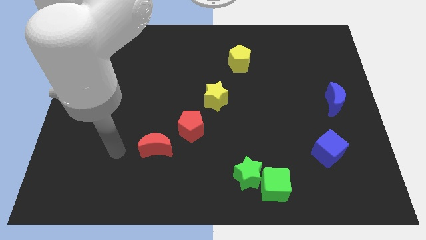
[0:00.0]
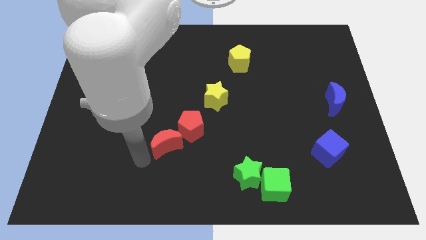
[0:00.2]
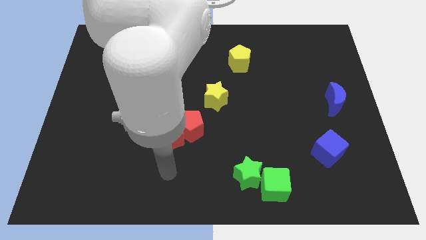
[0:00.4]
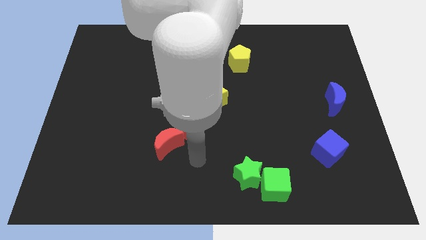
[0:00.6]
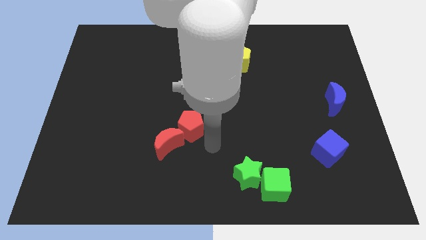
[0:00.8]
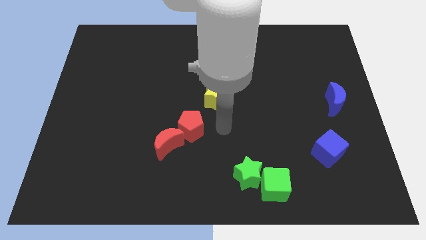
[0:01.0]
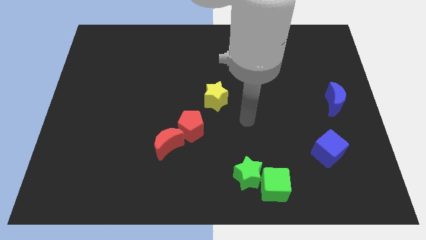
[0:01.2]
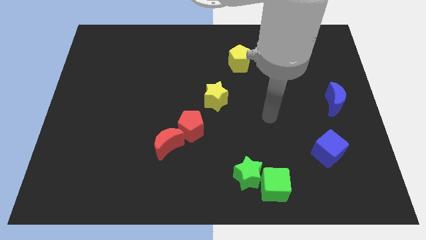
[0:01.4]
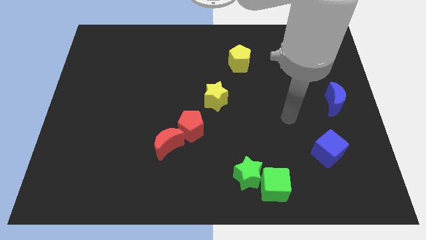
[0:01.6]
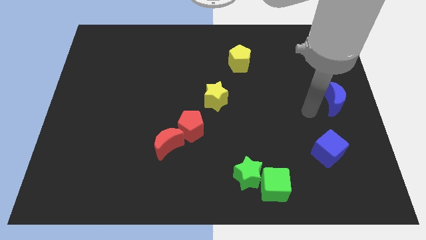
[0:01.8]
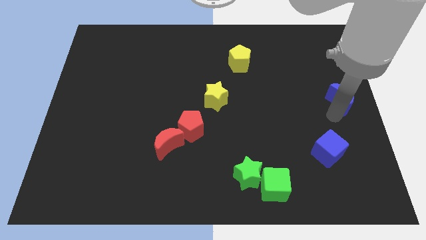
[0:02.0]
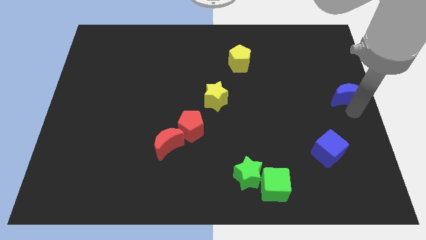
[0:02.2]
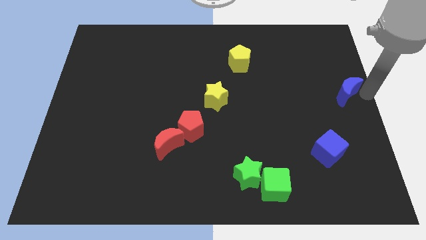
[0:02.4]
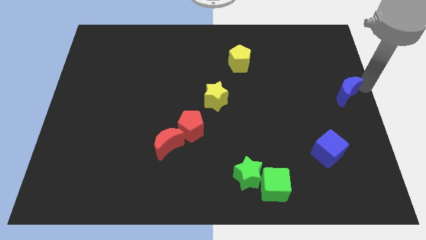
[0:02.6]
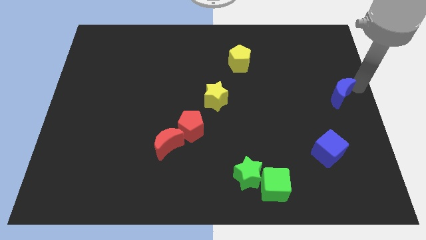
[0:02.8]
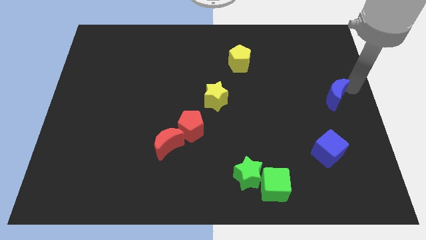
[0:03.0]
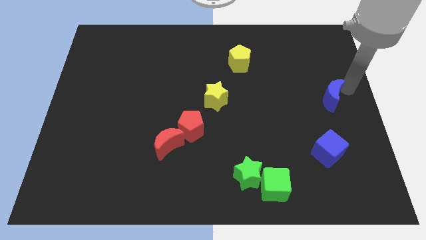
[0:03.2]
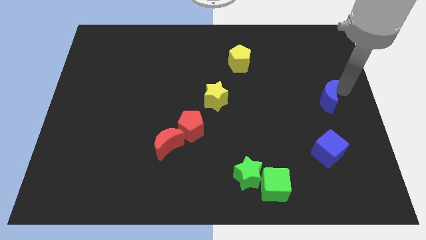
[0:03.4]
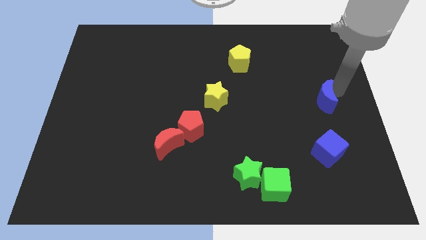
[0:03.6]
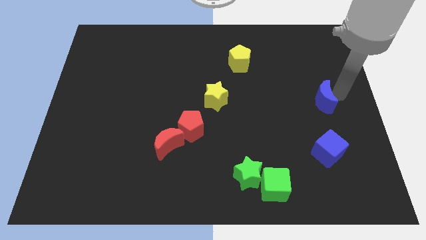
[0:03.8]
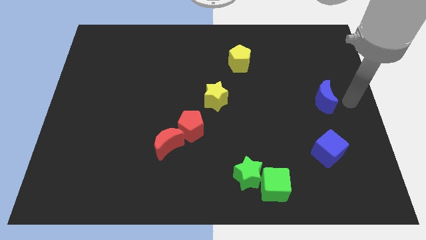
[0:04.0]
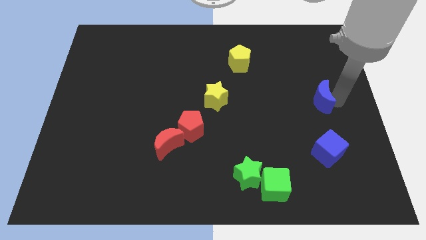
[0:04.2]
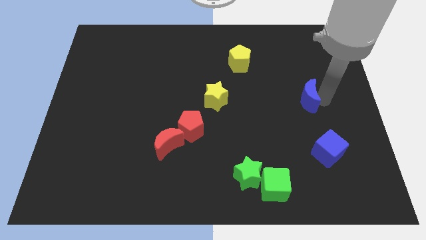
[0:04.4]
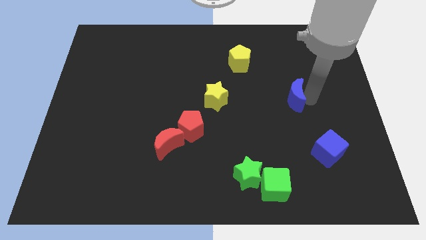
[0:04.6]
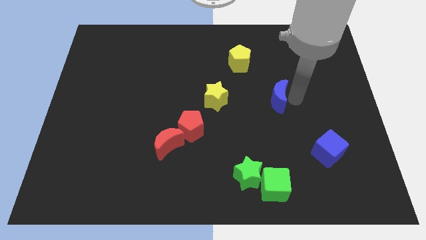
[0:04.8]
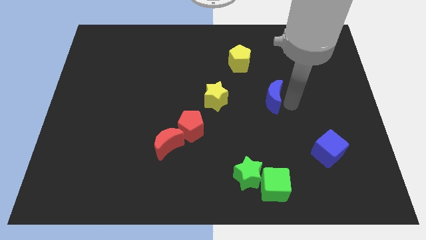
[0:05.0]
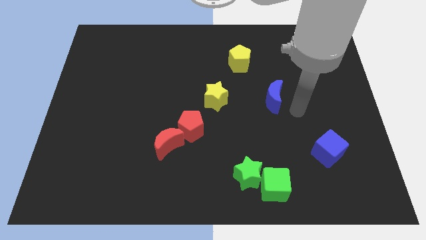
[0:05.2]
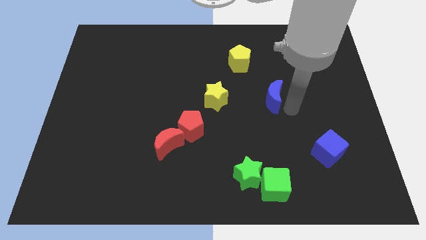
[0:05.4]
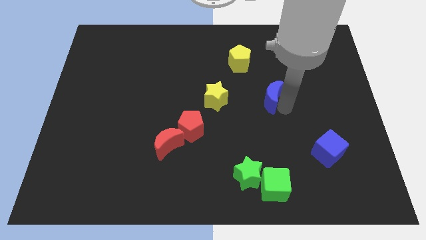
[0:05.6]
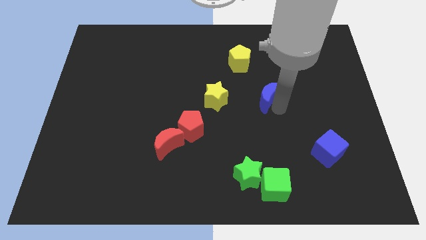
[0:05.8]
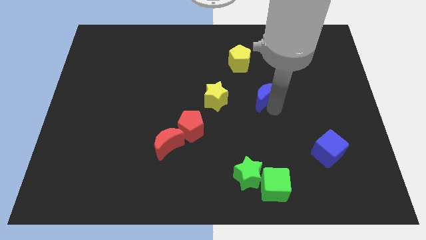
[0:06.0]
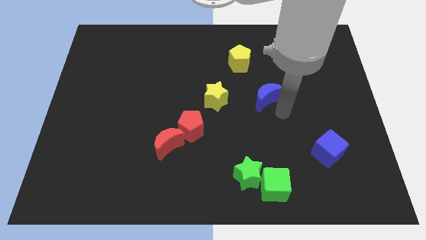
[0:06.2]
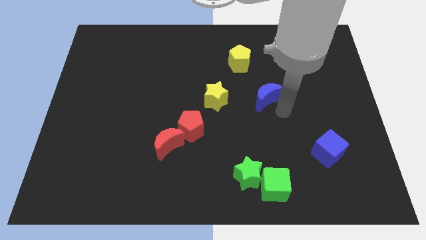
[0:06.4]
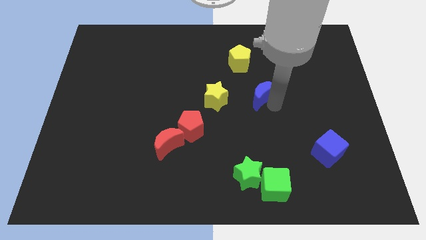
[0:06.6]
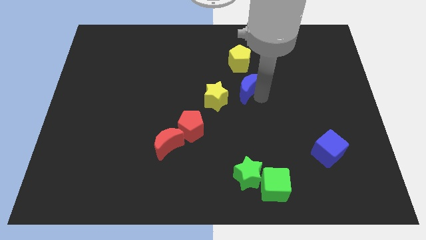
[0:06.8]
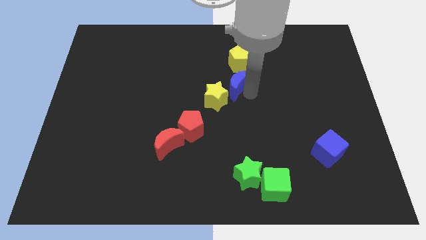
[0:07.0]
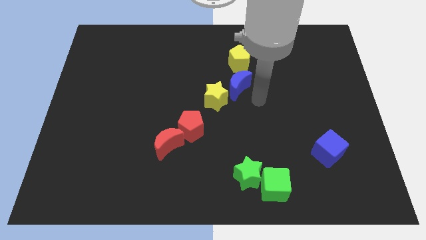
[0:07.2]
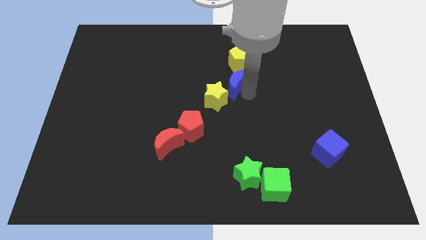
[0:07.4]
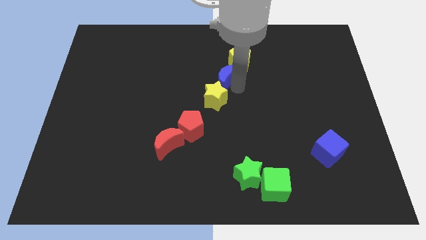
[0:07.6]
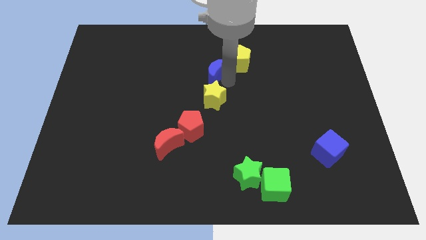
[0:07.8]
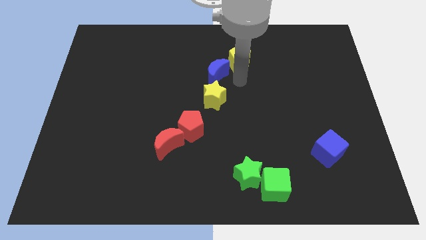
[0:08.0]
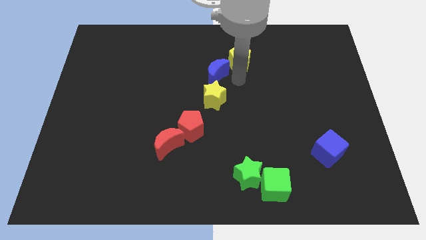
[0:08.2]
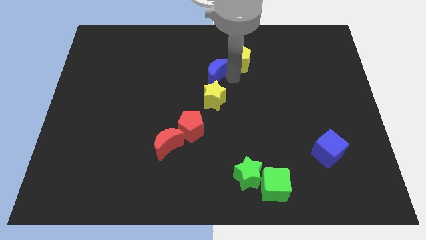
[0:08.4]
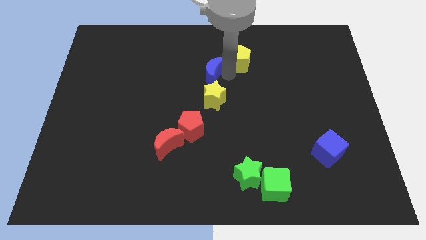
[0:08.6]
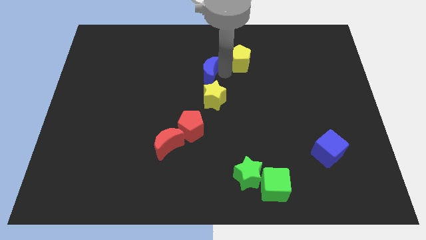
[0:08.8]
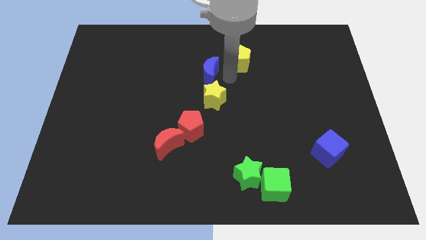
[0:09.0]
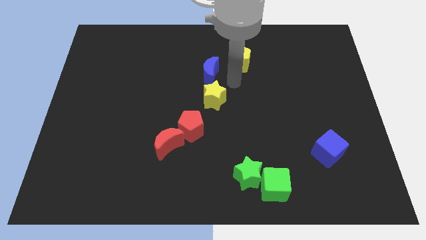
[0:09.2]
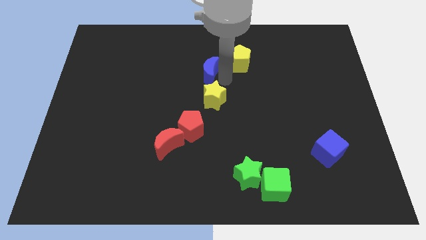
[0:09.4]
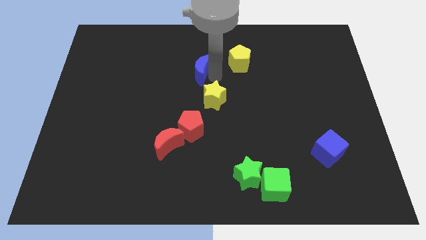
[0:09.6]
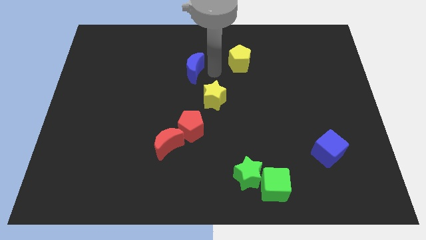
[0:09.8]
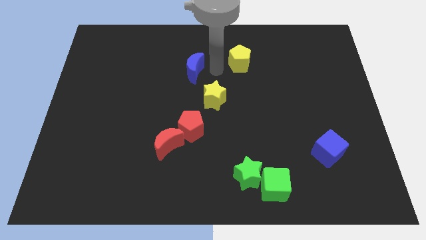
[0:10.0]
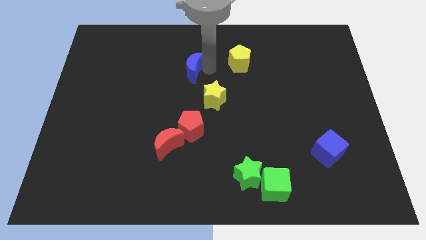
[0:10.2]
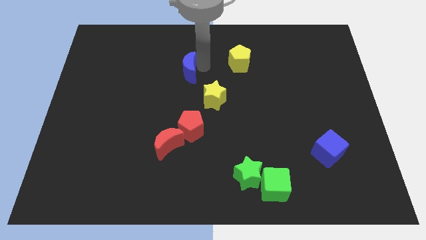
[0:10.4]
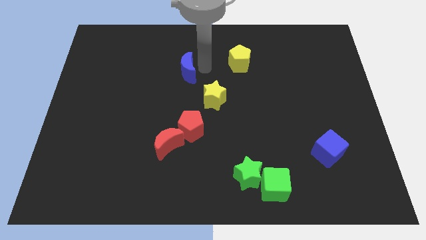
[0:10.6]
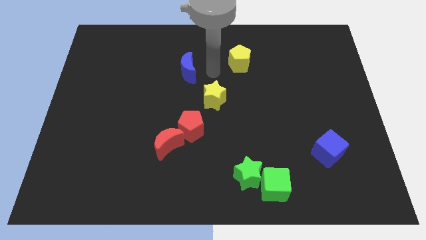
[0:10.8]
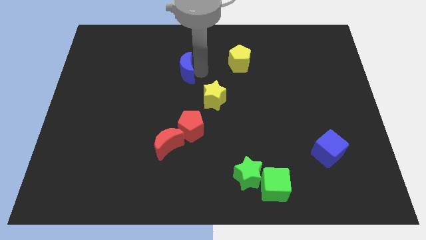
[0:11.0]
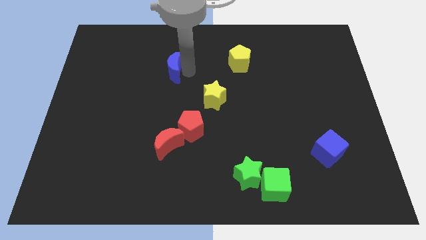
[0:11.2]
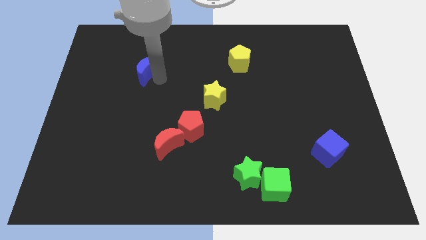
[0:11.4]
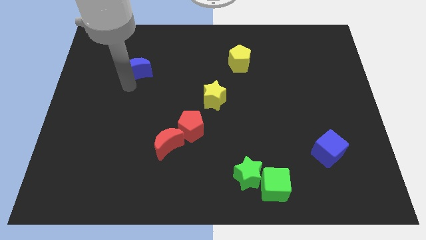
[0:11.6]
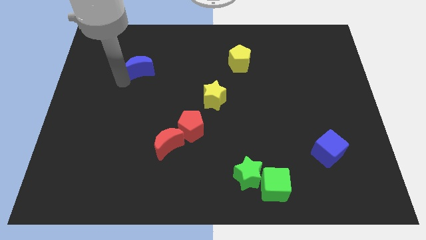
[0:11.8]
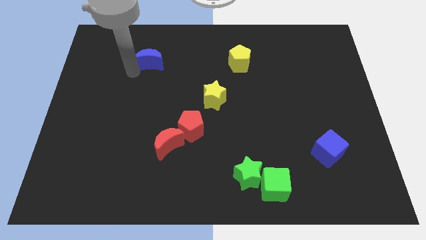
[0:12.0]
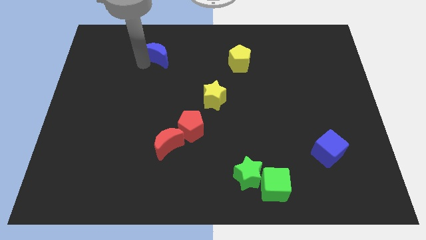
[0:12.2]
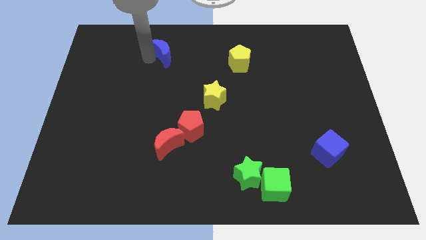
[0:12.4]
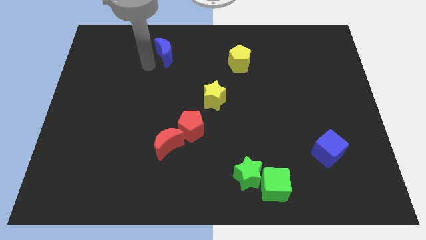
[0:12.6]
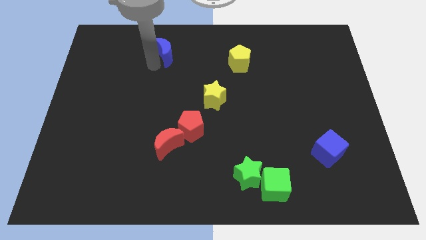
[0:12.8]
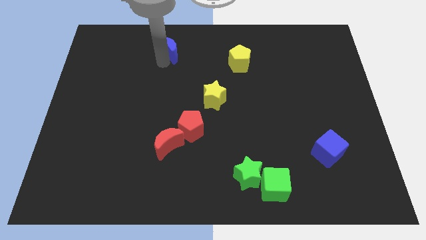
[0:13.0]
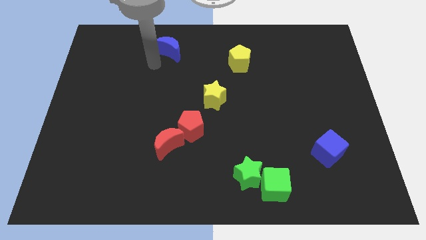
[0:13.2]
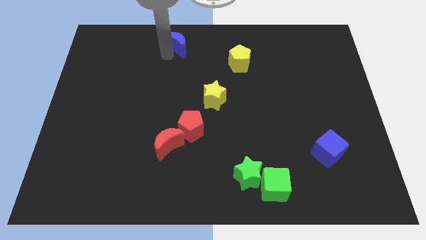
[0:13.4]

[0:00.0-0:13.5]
put the blue moon to the towards your base

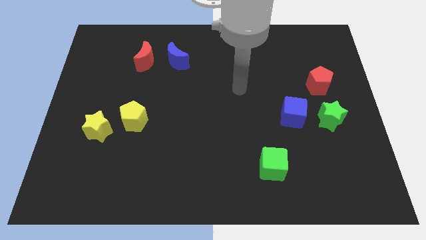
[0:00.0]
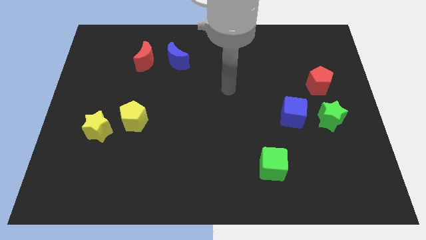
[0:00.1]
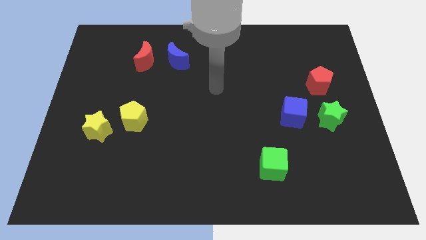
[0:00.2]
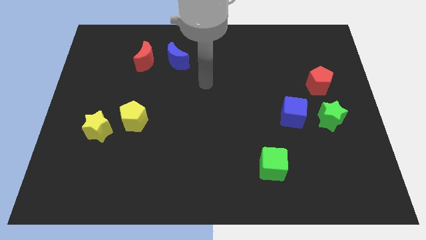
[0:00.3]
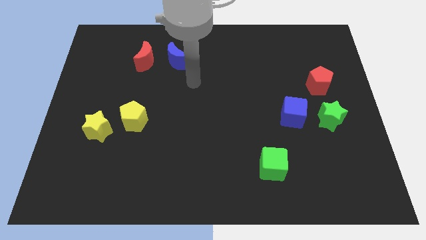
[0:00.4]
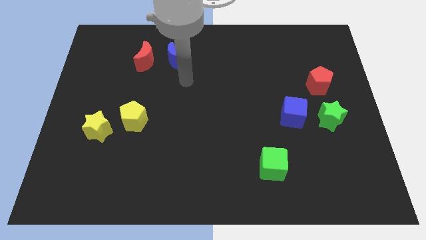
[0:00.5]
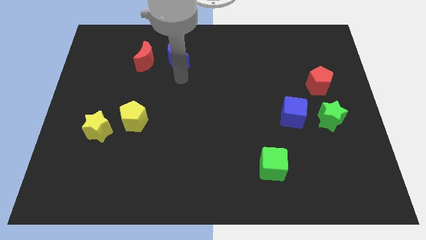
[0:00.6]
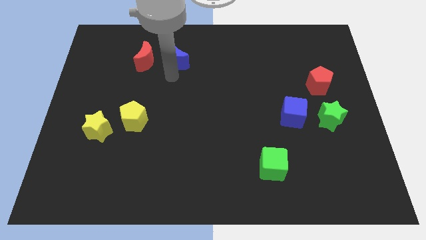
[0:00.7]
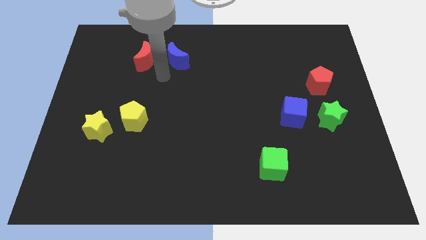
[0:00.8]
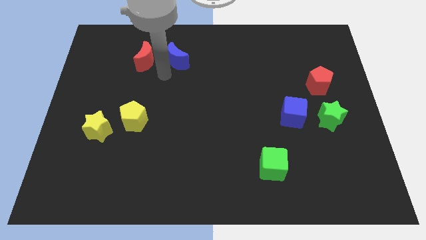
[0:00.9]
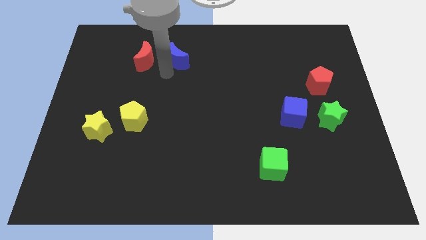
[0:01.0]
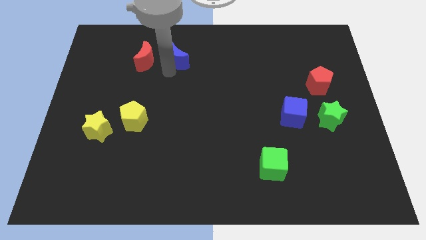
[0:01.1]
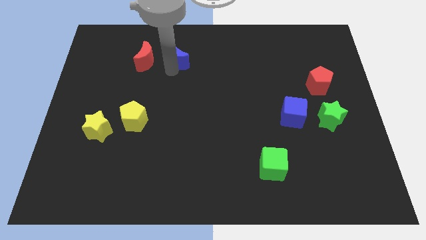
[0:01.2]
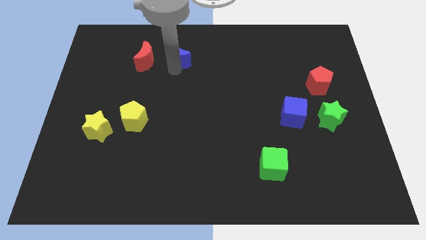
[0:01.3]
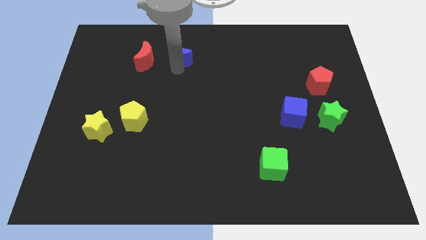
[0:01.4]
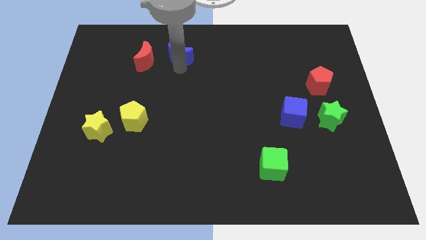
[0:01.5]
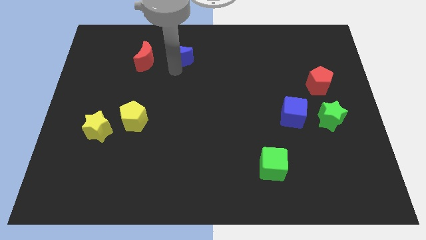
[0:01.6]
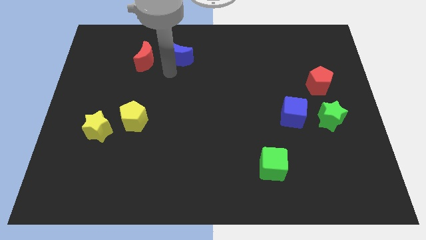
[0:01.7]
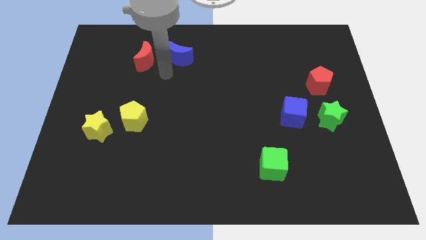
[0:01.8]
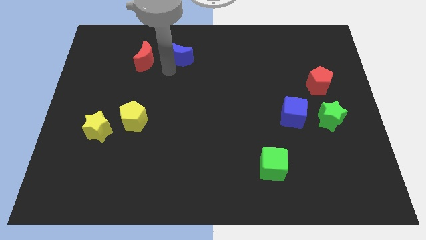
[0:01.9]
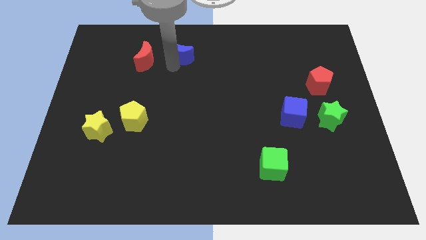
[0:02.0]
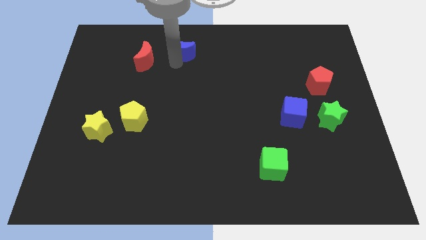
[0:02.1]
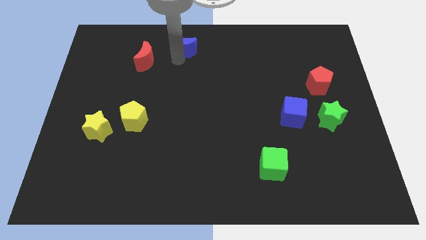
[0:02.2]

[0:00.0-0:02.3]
push the blue moon to the towards your base
